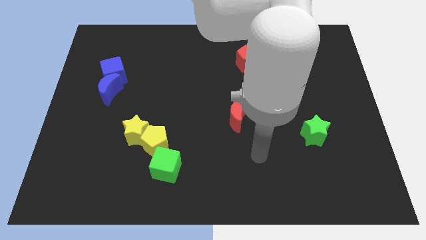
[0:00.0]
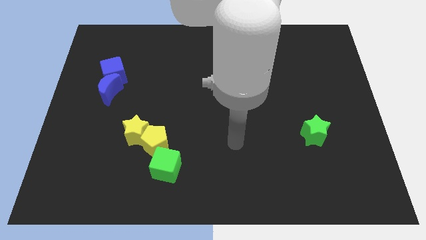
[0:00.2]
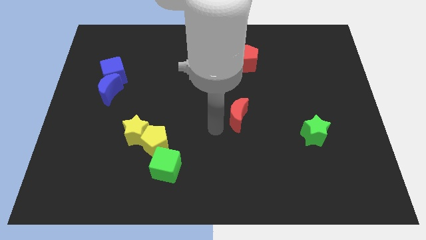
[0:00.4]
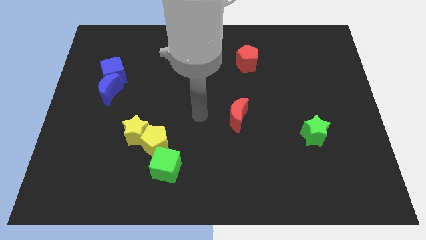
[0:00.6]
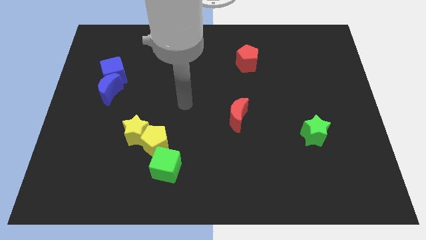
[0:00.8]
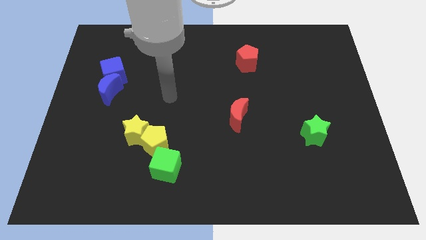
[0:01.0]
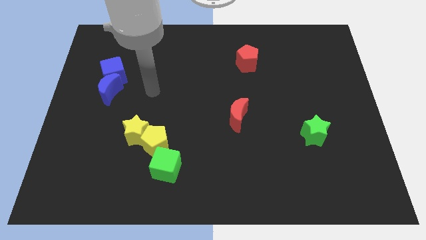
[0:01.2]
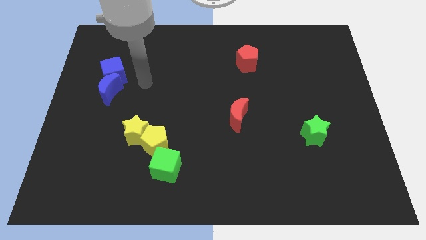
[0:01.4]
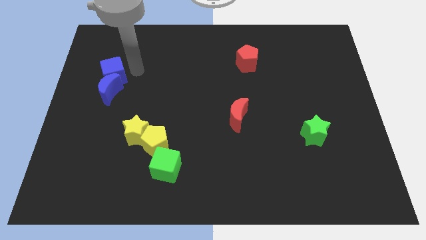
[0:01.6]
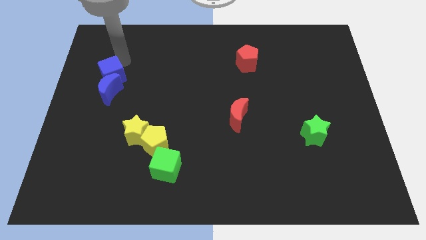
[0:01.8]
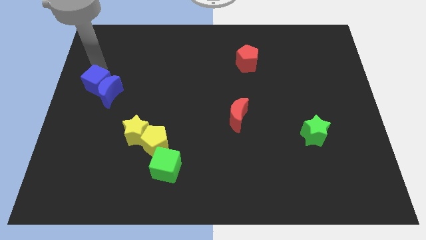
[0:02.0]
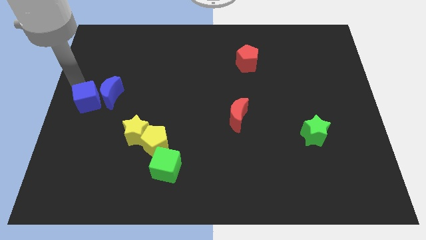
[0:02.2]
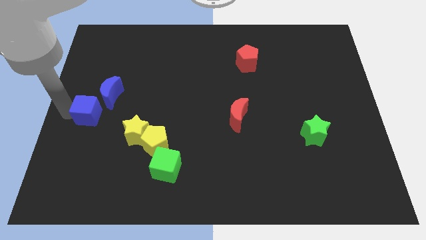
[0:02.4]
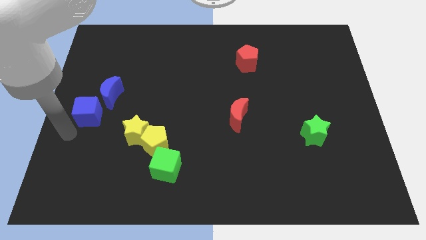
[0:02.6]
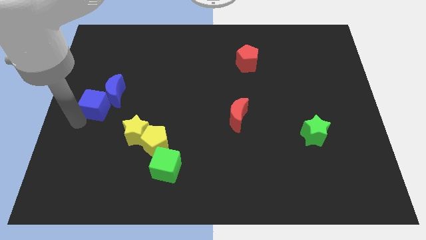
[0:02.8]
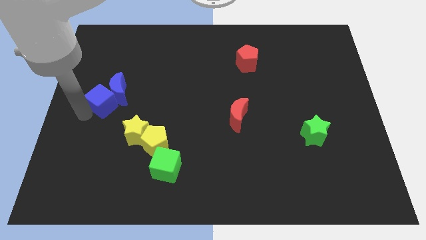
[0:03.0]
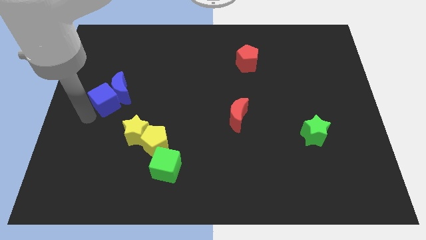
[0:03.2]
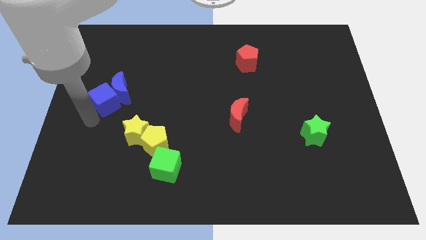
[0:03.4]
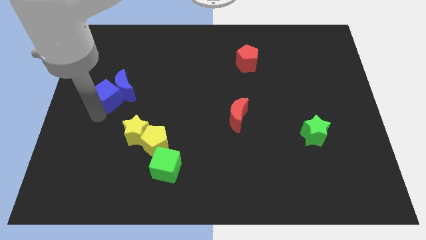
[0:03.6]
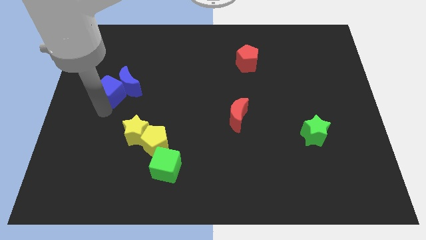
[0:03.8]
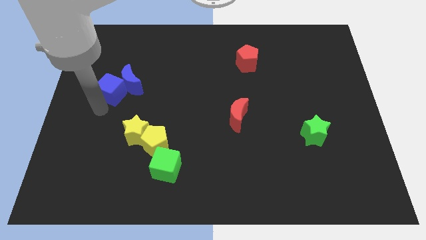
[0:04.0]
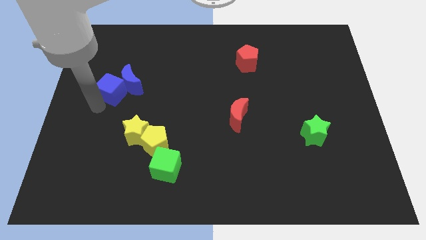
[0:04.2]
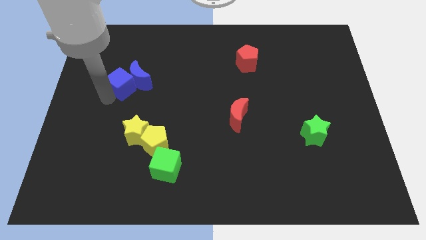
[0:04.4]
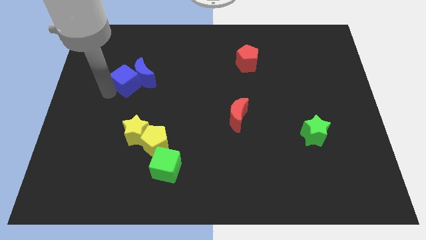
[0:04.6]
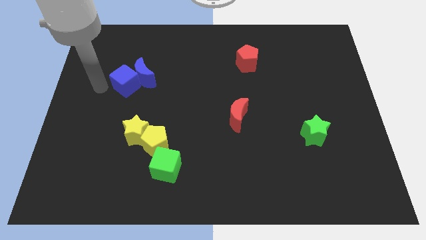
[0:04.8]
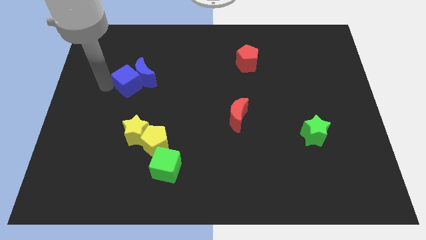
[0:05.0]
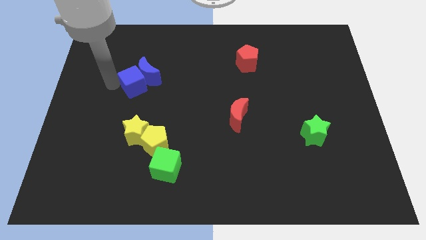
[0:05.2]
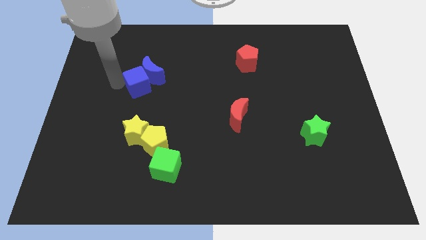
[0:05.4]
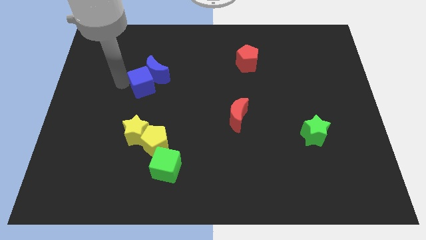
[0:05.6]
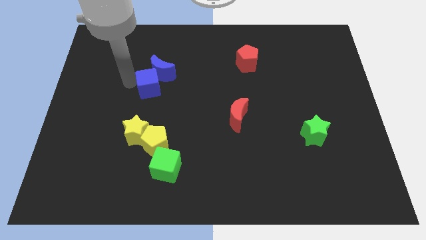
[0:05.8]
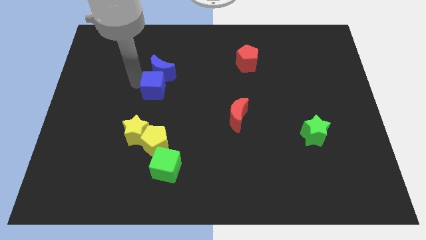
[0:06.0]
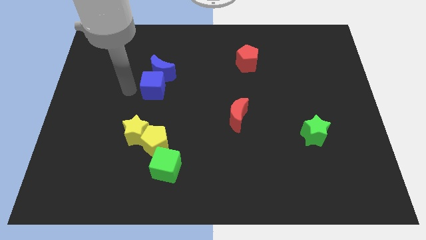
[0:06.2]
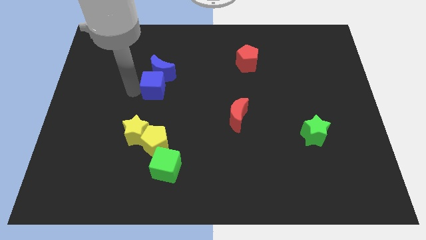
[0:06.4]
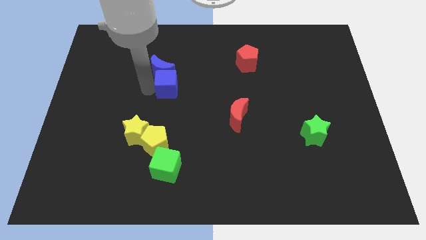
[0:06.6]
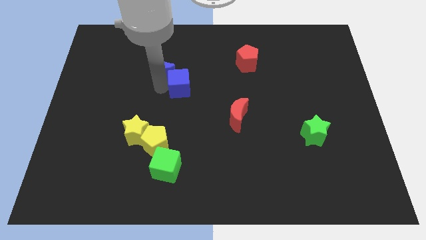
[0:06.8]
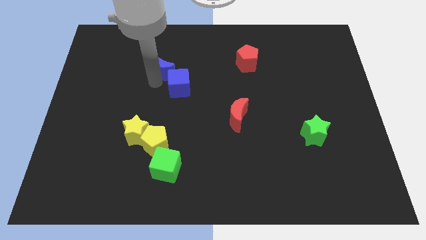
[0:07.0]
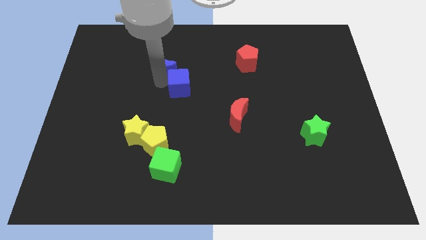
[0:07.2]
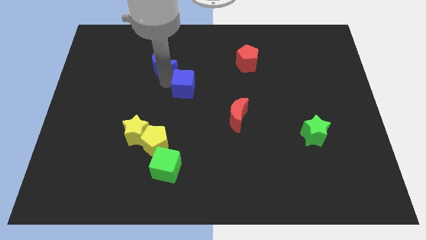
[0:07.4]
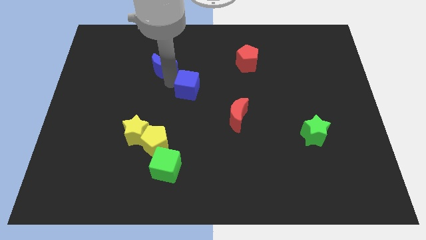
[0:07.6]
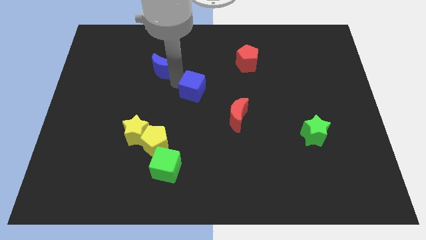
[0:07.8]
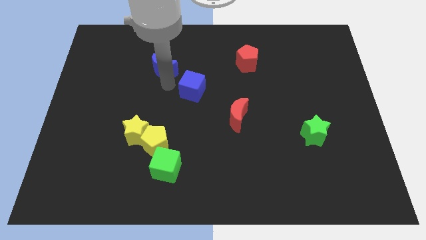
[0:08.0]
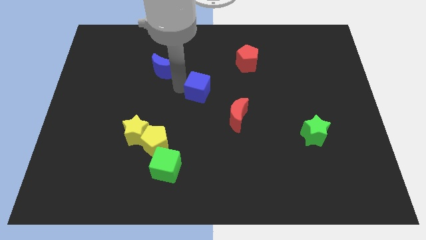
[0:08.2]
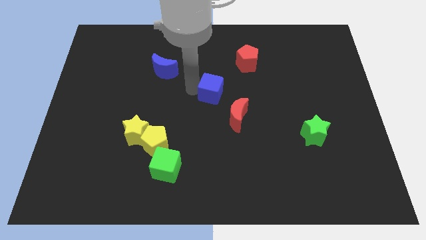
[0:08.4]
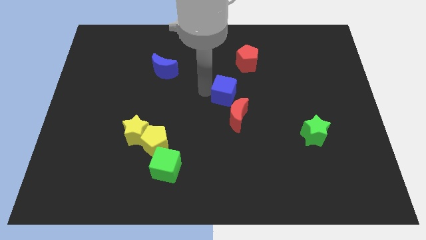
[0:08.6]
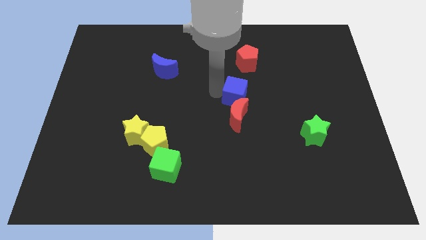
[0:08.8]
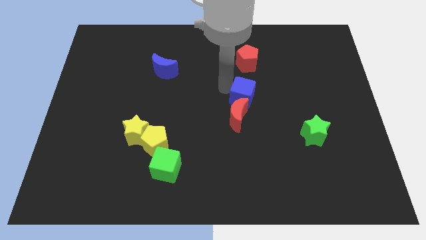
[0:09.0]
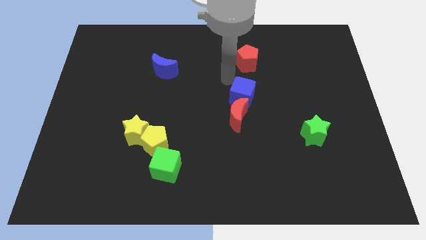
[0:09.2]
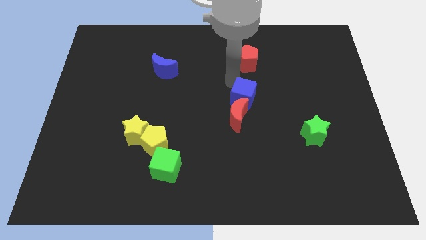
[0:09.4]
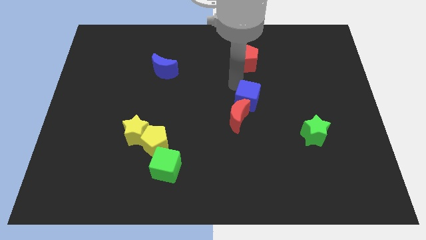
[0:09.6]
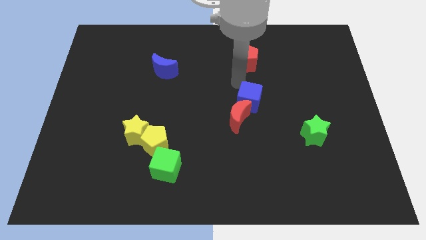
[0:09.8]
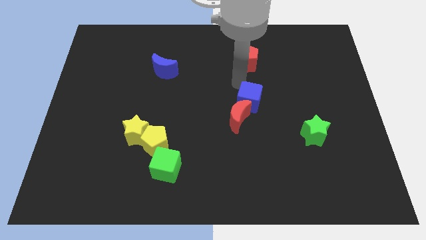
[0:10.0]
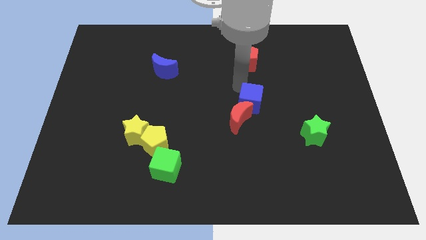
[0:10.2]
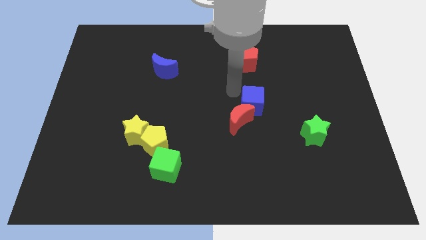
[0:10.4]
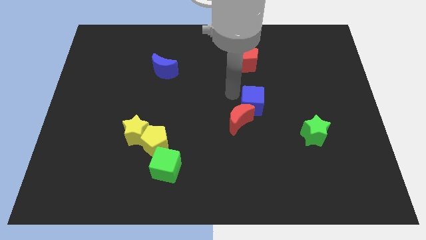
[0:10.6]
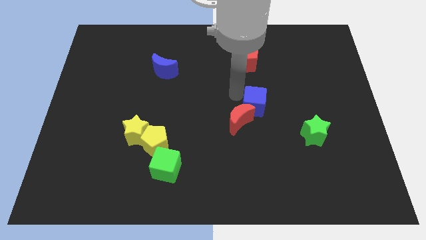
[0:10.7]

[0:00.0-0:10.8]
move the blue cube to the right side of the red moon

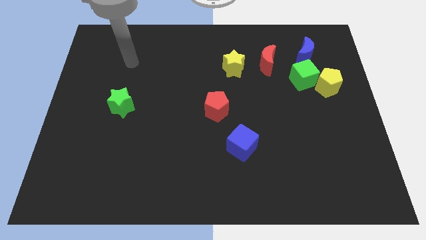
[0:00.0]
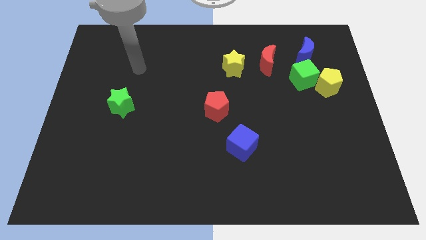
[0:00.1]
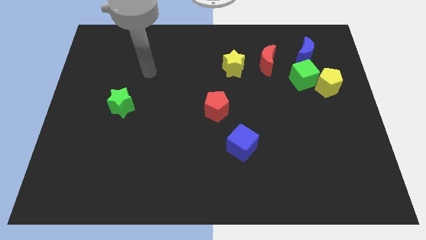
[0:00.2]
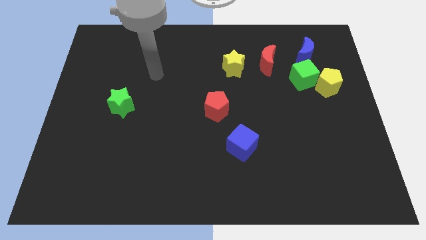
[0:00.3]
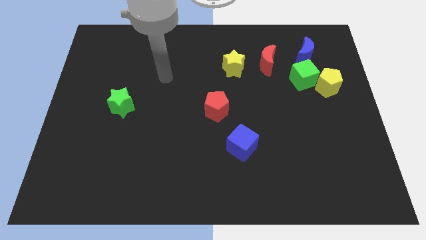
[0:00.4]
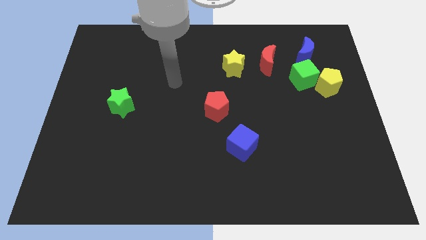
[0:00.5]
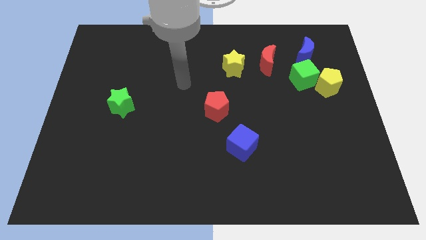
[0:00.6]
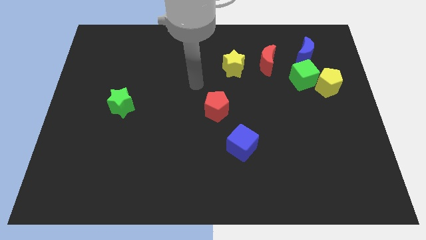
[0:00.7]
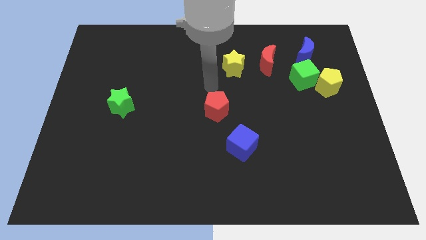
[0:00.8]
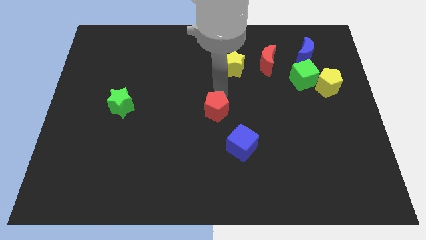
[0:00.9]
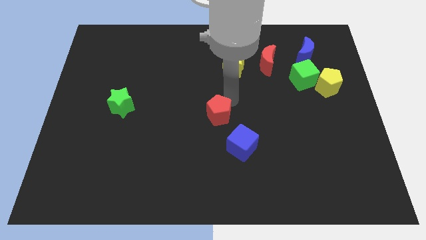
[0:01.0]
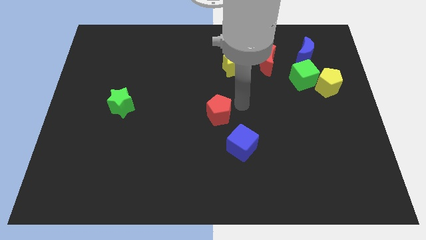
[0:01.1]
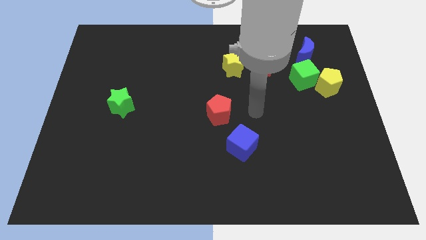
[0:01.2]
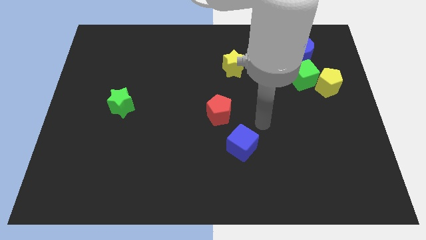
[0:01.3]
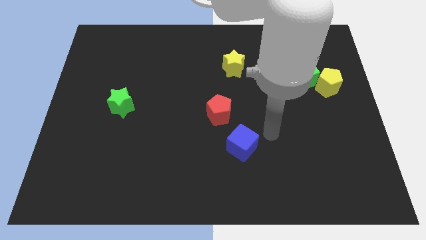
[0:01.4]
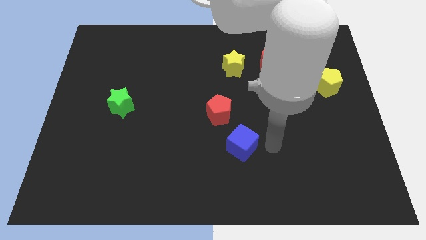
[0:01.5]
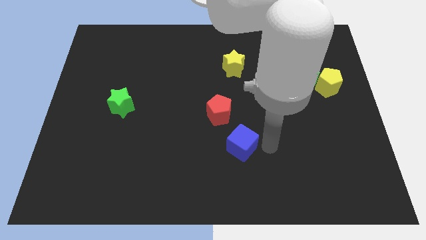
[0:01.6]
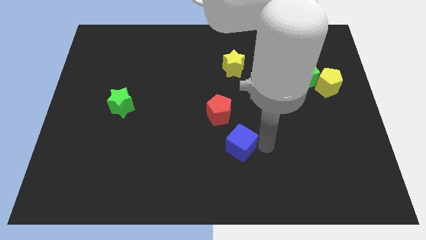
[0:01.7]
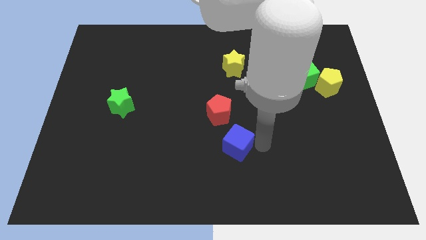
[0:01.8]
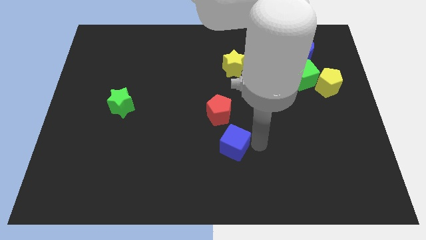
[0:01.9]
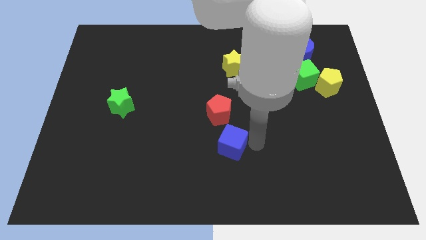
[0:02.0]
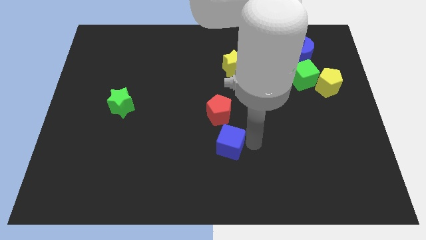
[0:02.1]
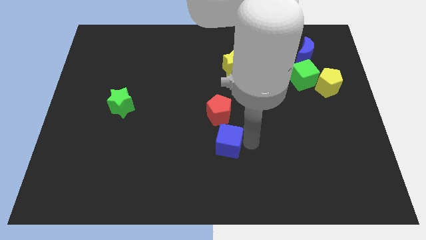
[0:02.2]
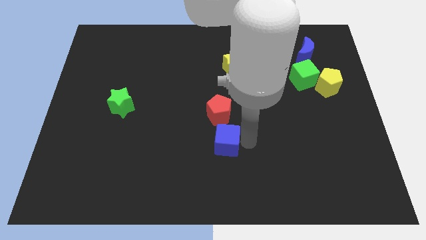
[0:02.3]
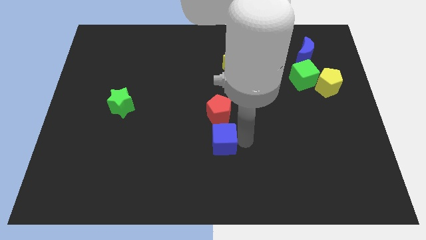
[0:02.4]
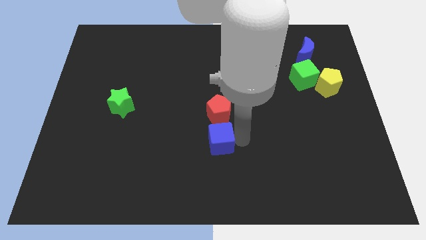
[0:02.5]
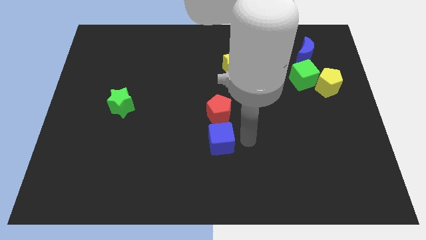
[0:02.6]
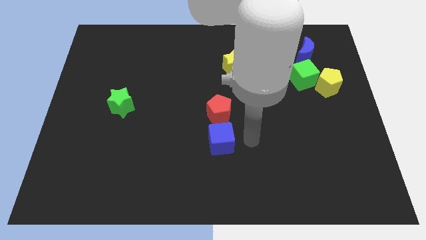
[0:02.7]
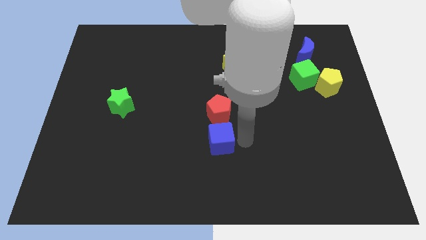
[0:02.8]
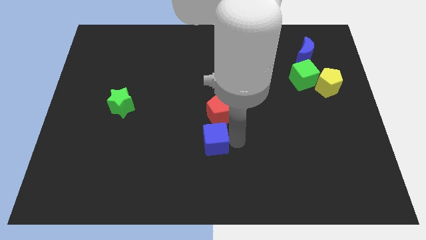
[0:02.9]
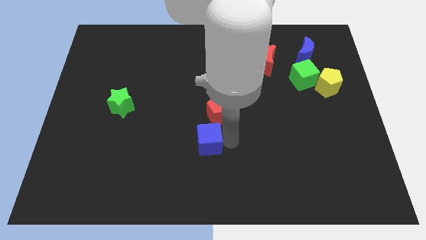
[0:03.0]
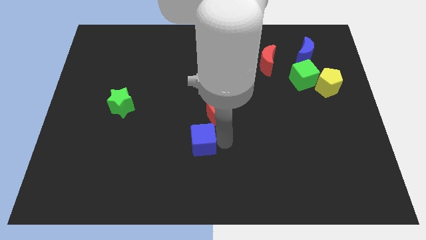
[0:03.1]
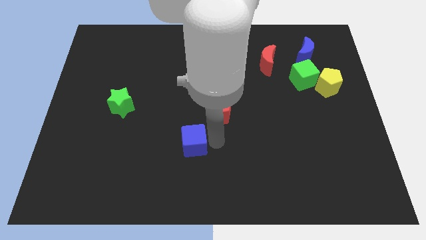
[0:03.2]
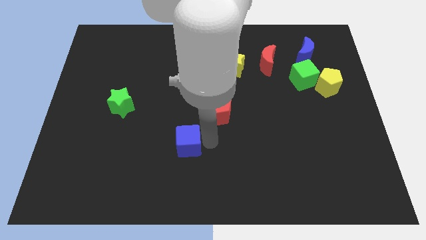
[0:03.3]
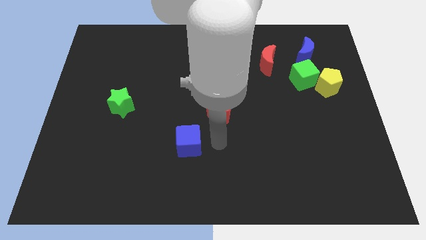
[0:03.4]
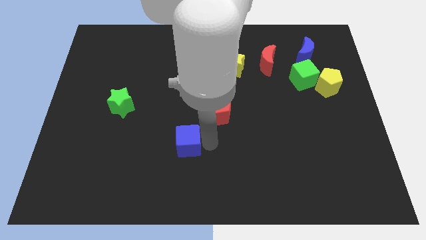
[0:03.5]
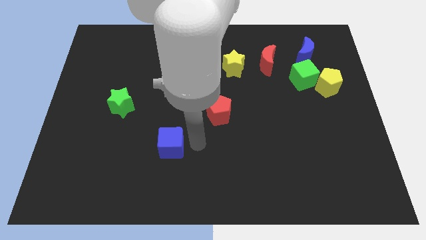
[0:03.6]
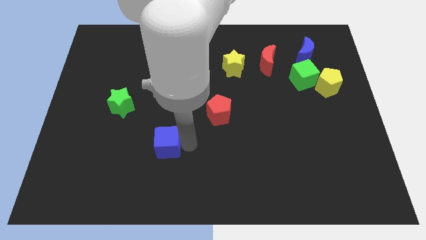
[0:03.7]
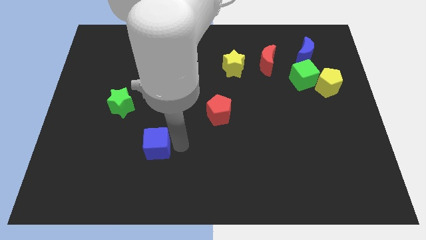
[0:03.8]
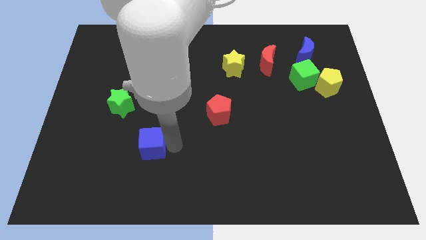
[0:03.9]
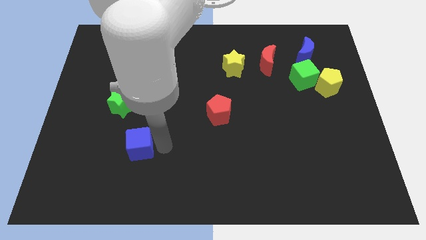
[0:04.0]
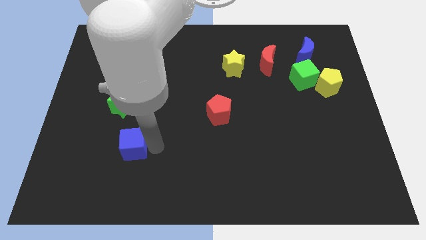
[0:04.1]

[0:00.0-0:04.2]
slide the blue cube to the bottom side of the green star
